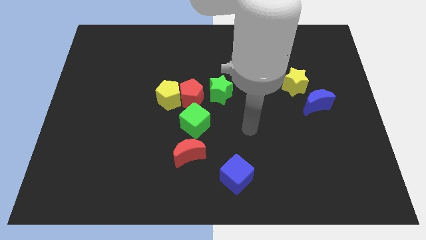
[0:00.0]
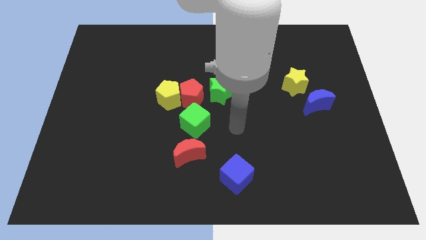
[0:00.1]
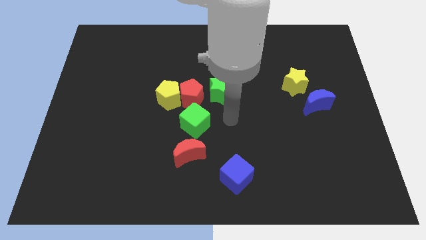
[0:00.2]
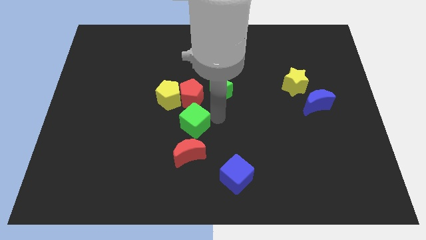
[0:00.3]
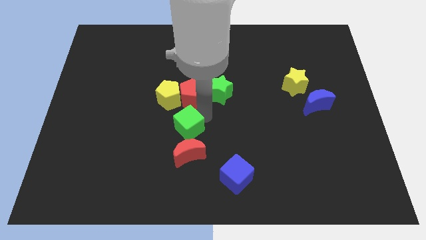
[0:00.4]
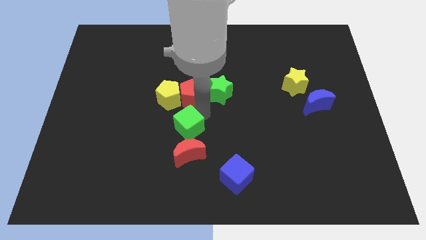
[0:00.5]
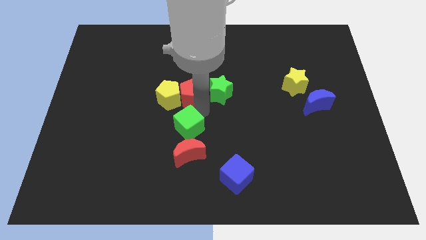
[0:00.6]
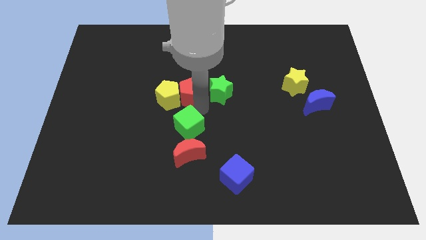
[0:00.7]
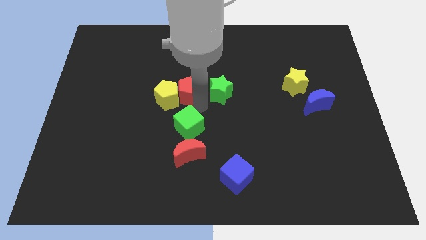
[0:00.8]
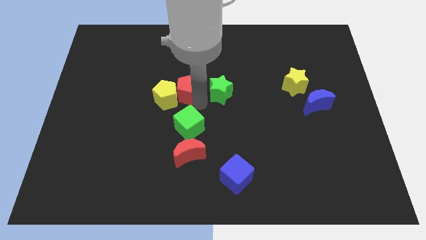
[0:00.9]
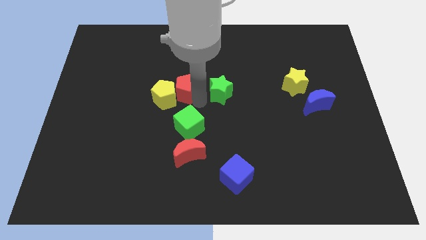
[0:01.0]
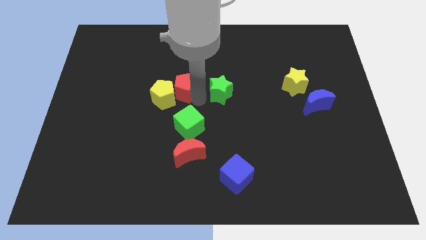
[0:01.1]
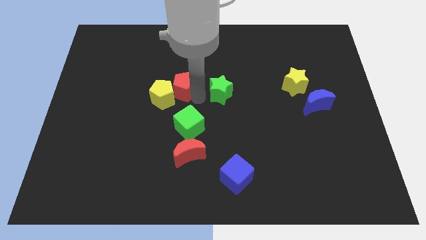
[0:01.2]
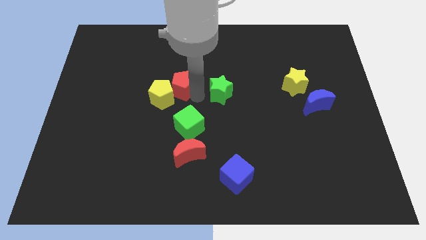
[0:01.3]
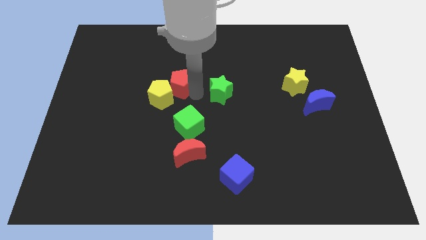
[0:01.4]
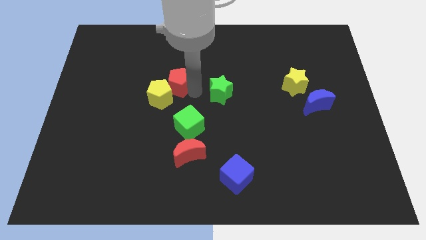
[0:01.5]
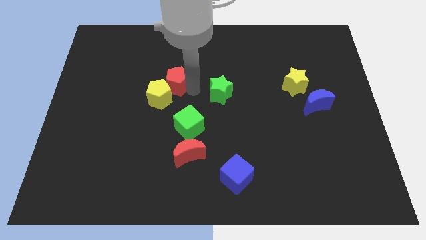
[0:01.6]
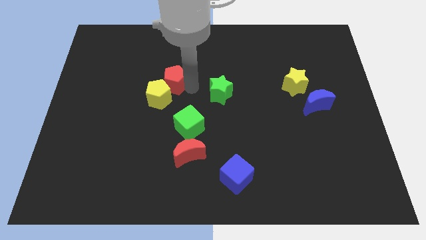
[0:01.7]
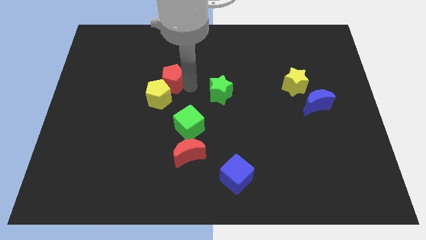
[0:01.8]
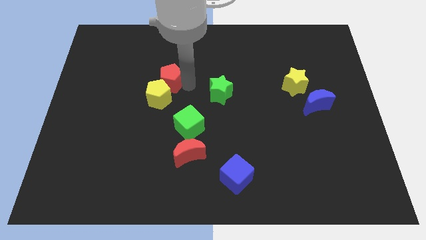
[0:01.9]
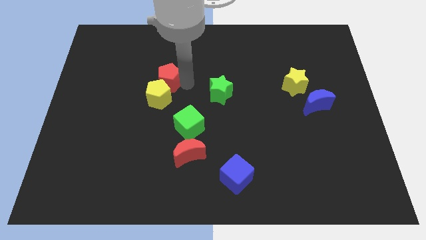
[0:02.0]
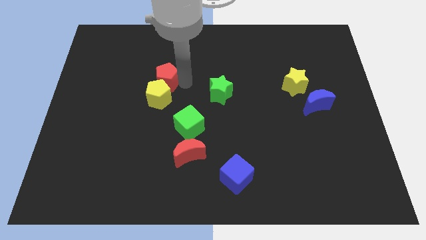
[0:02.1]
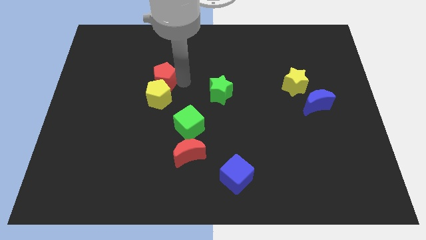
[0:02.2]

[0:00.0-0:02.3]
move the red pentagon away from the yellow pentagon, green star, and green cube

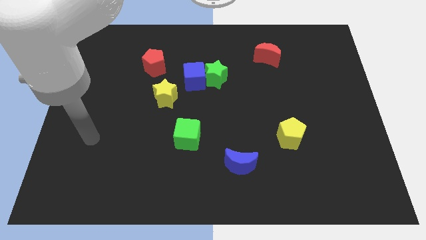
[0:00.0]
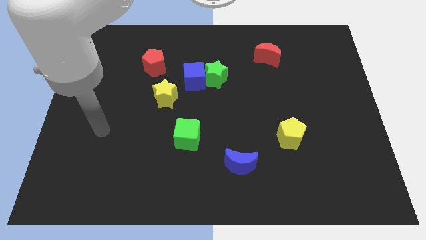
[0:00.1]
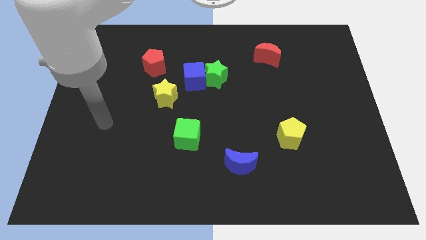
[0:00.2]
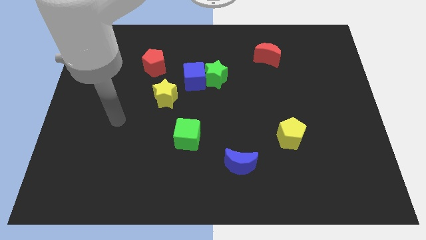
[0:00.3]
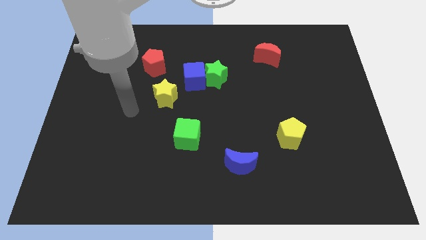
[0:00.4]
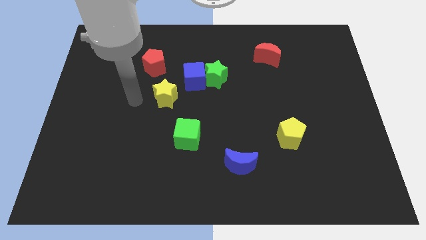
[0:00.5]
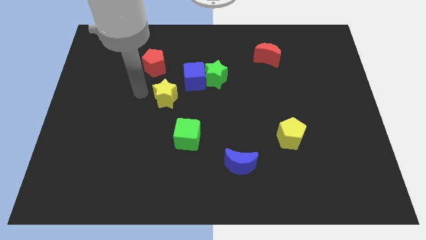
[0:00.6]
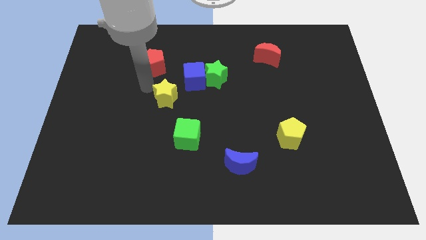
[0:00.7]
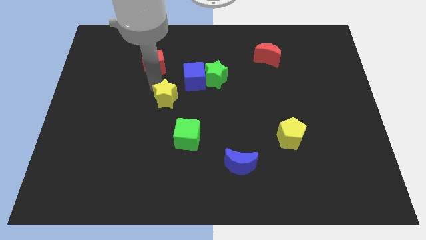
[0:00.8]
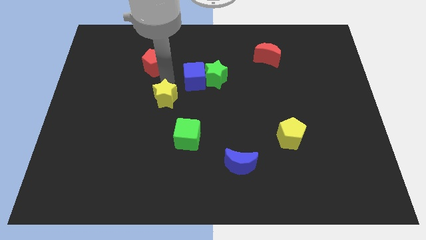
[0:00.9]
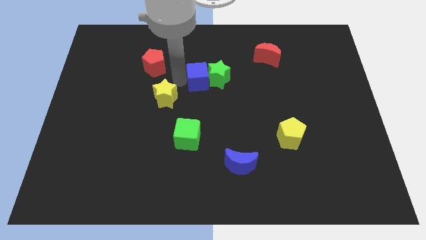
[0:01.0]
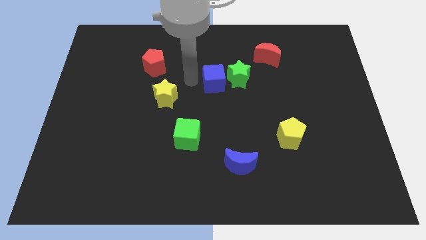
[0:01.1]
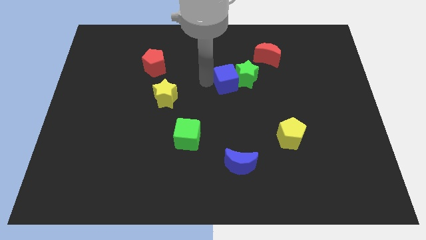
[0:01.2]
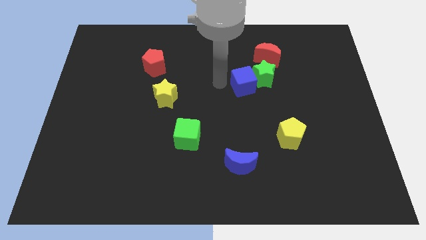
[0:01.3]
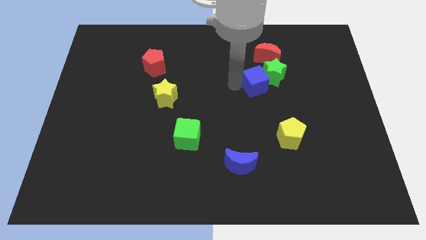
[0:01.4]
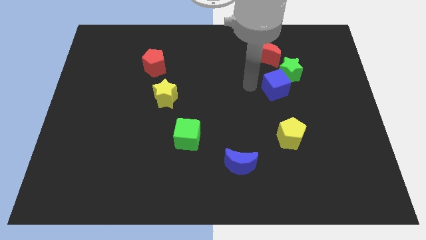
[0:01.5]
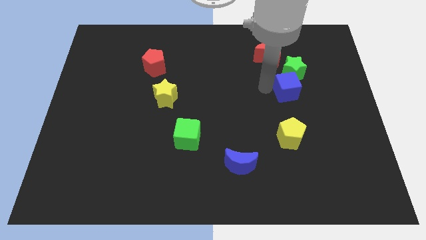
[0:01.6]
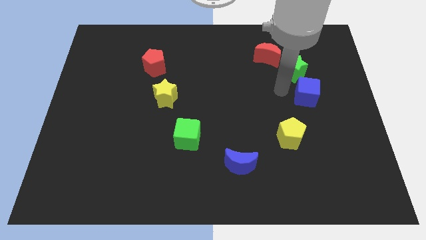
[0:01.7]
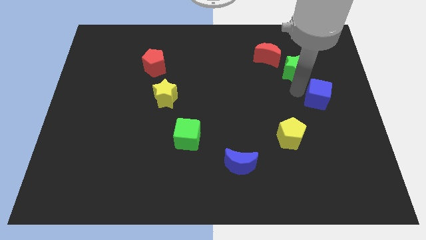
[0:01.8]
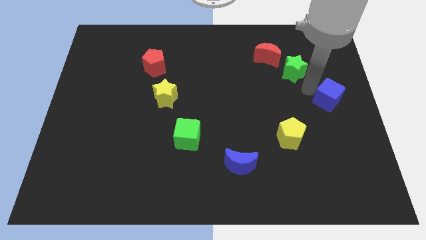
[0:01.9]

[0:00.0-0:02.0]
move the green star away from the blue cube

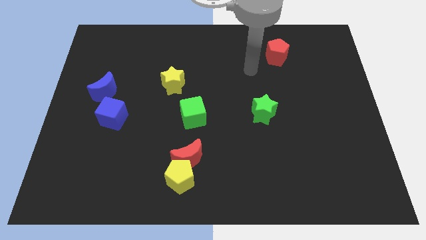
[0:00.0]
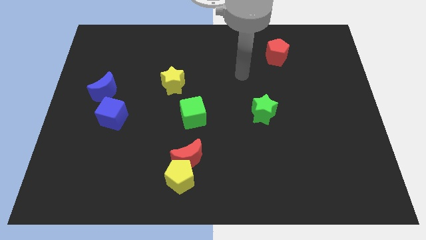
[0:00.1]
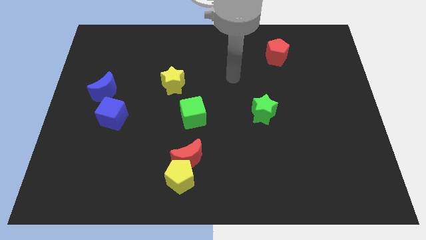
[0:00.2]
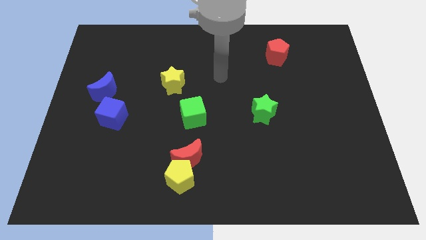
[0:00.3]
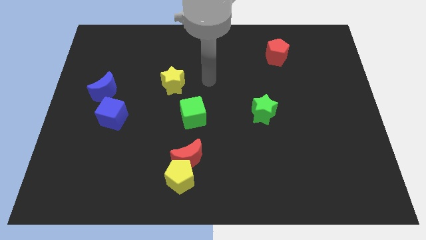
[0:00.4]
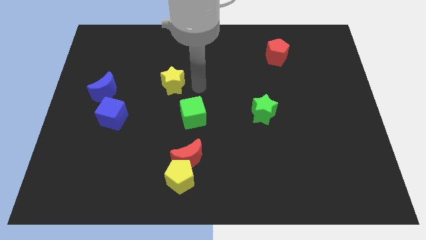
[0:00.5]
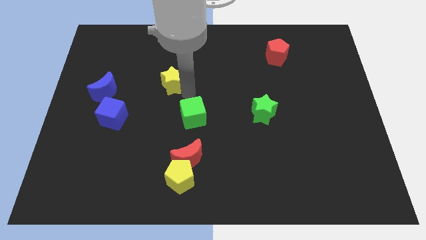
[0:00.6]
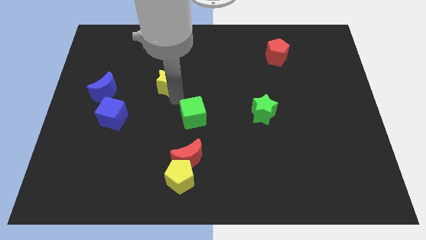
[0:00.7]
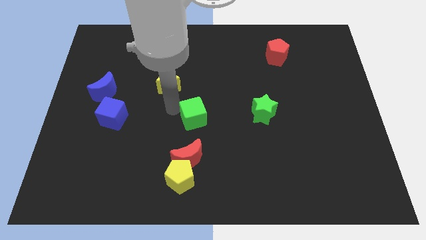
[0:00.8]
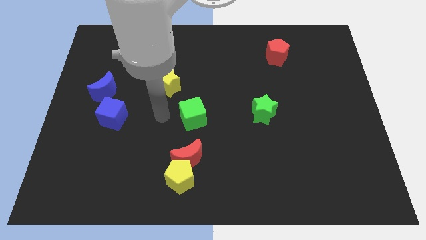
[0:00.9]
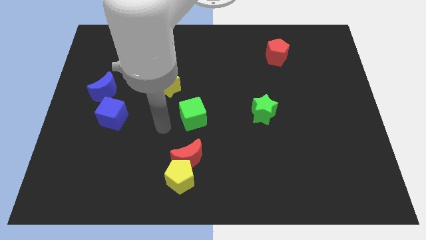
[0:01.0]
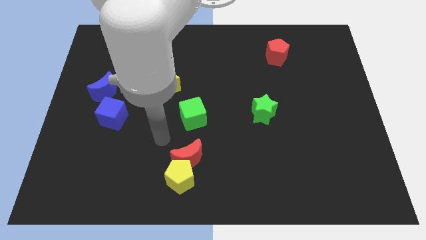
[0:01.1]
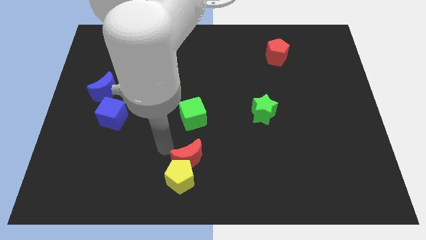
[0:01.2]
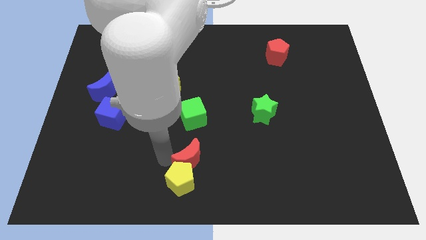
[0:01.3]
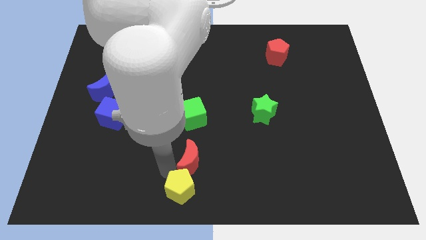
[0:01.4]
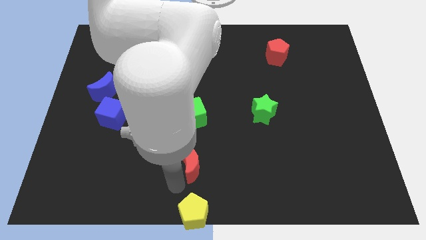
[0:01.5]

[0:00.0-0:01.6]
pull the red moon apart from the yellow pentagon

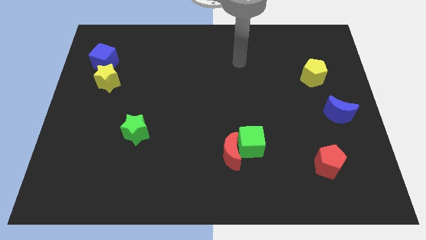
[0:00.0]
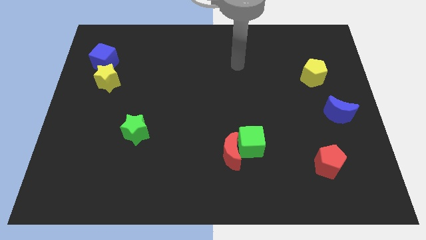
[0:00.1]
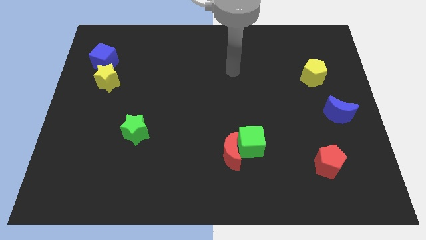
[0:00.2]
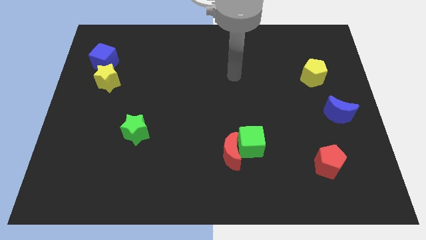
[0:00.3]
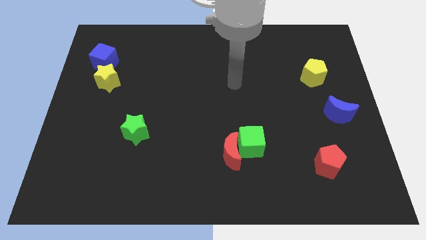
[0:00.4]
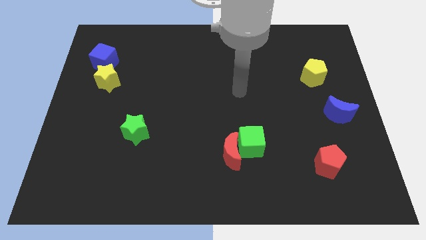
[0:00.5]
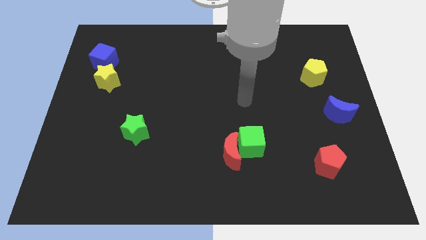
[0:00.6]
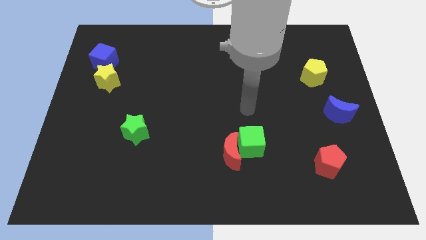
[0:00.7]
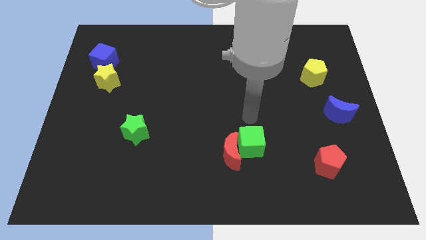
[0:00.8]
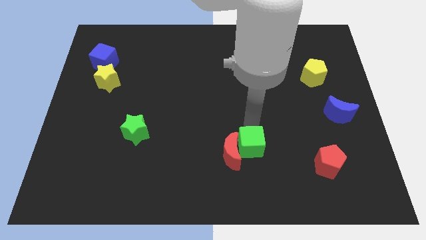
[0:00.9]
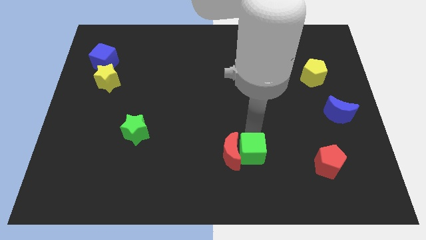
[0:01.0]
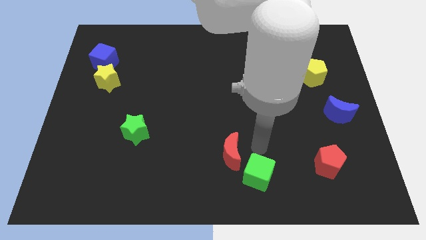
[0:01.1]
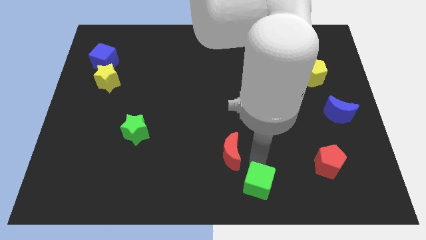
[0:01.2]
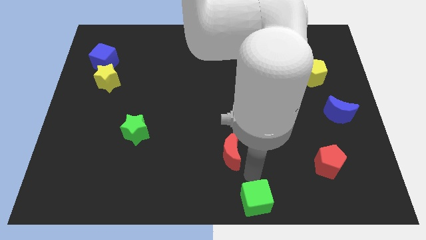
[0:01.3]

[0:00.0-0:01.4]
separate the red moon from the green cube

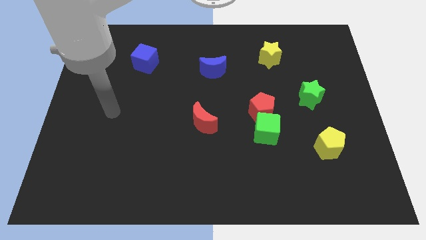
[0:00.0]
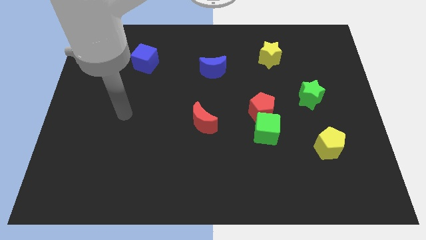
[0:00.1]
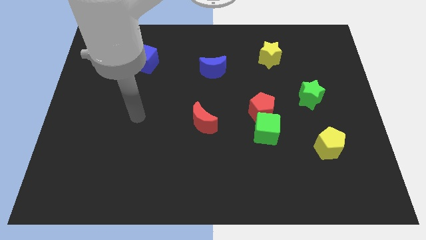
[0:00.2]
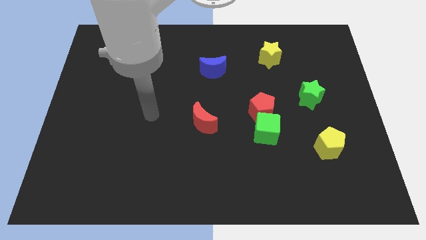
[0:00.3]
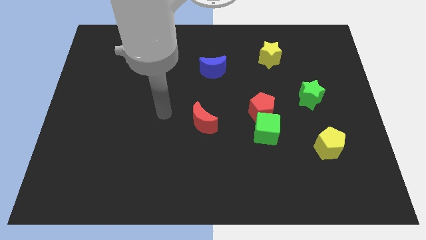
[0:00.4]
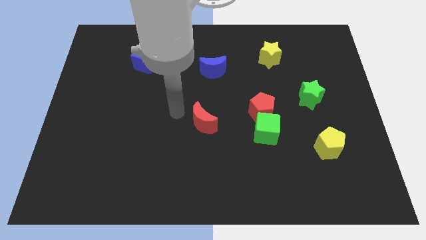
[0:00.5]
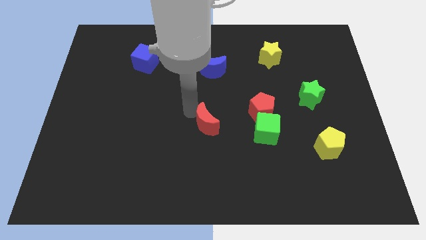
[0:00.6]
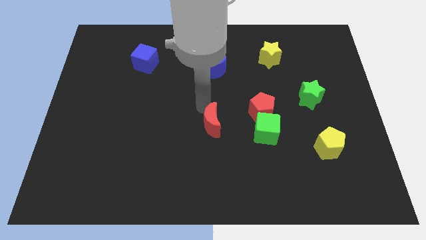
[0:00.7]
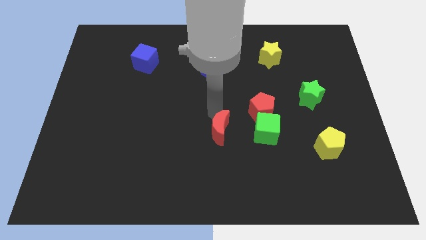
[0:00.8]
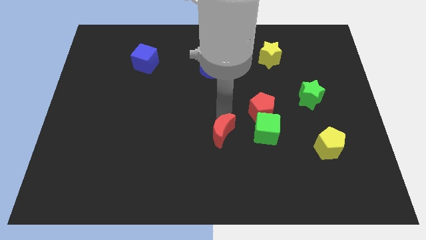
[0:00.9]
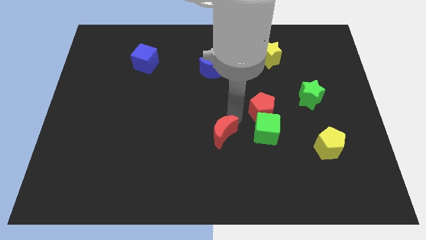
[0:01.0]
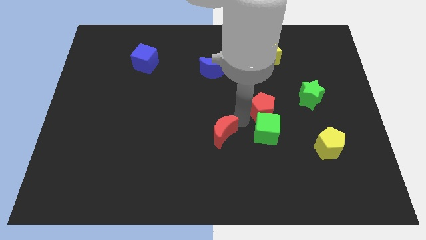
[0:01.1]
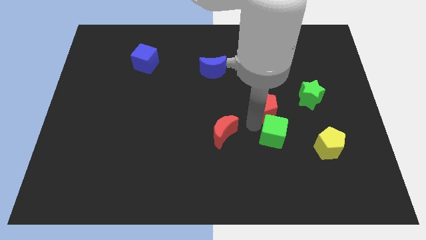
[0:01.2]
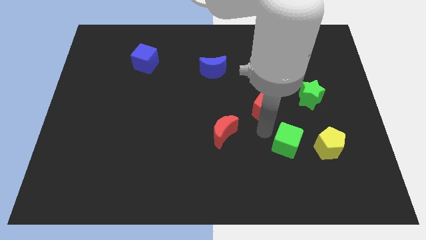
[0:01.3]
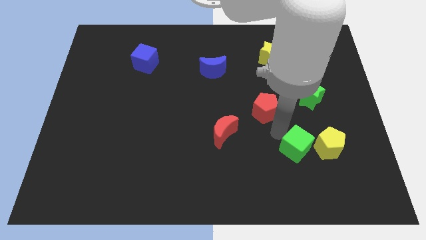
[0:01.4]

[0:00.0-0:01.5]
separate the red pentagon from the green cube

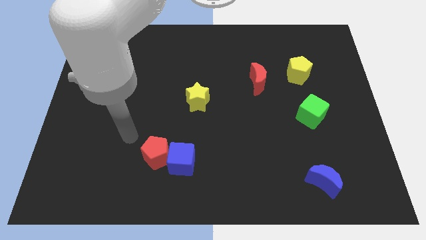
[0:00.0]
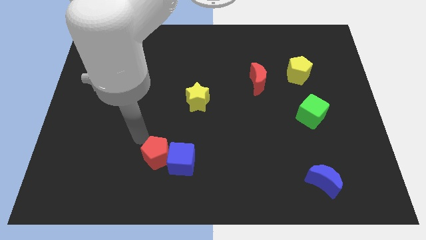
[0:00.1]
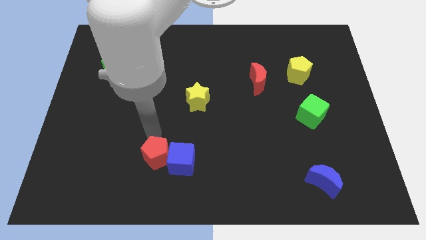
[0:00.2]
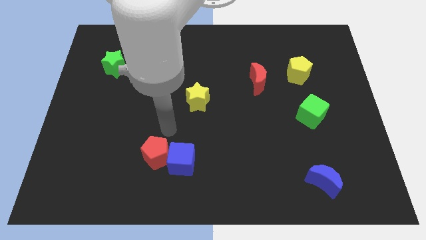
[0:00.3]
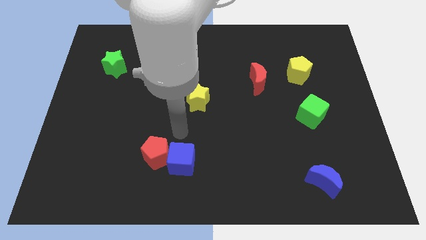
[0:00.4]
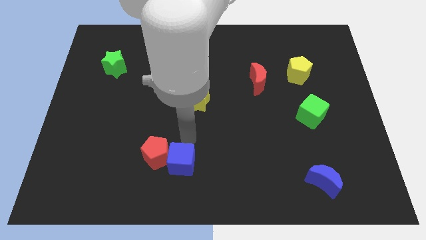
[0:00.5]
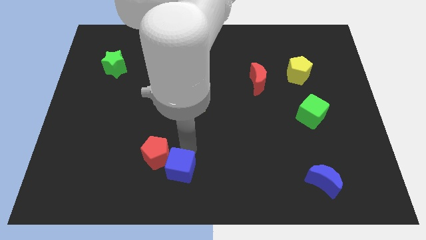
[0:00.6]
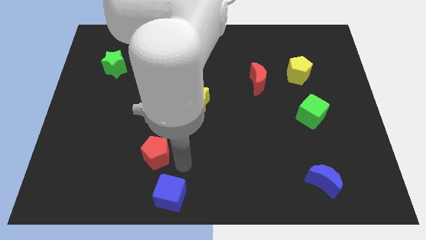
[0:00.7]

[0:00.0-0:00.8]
pull the red pentagon apart from the blue cube
